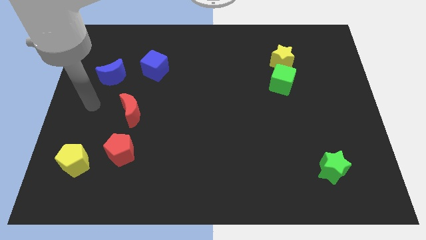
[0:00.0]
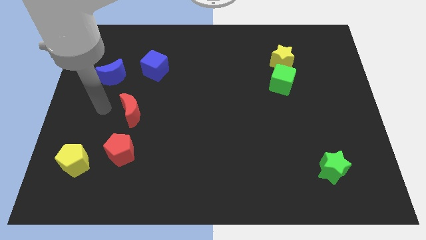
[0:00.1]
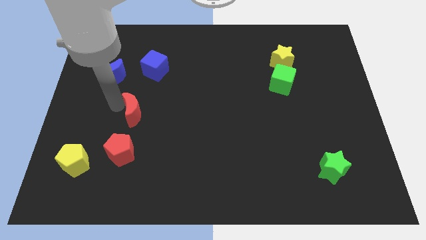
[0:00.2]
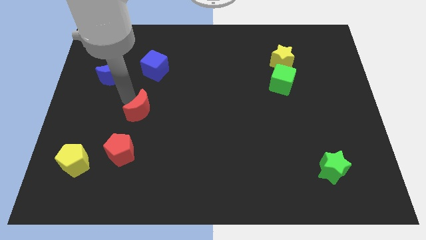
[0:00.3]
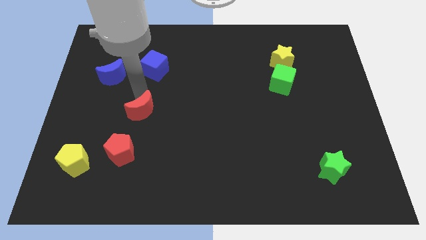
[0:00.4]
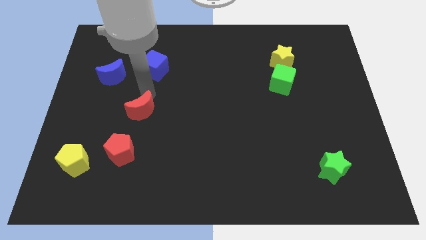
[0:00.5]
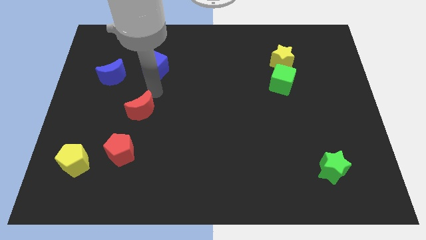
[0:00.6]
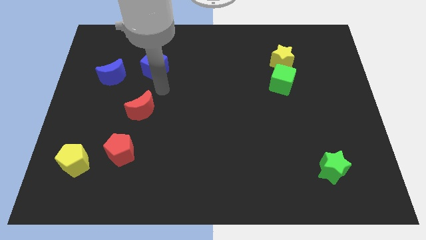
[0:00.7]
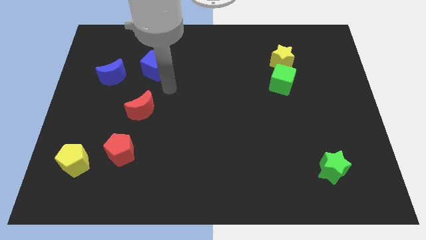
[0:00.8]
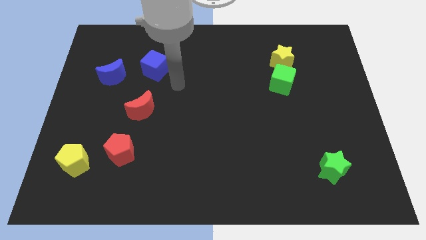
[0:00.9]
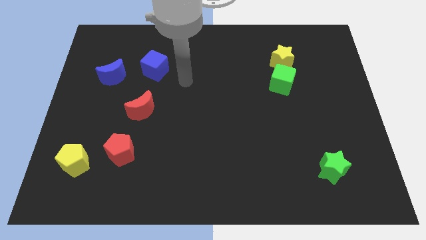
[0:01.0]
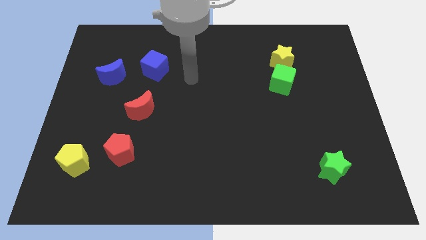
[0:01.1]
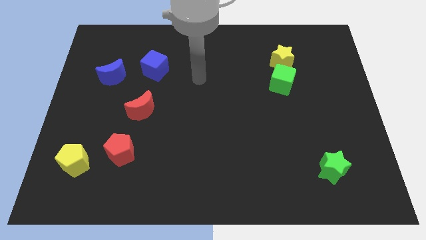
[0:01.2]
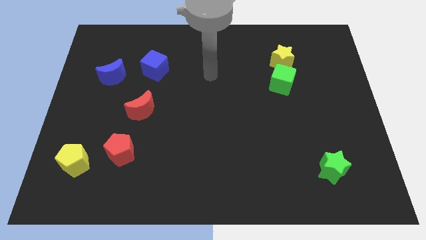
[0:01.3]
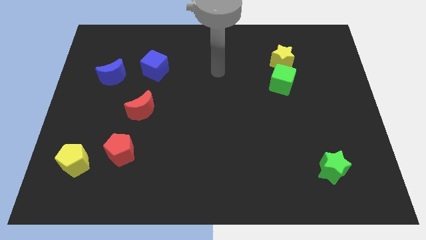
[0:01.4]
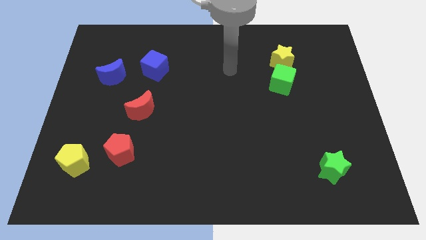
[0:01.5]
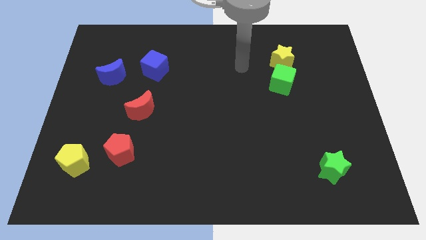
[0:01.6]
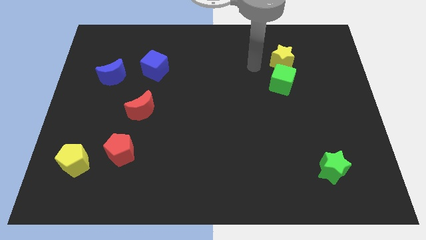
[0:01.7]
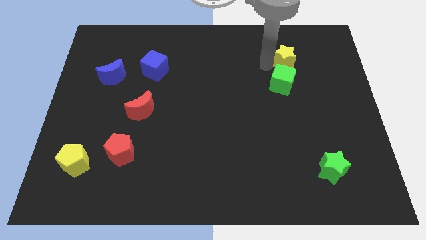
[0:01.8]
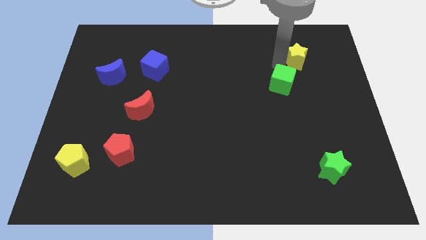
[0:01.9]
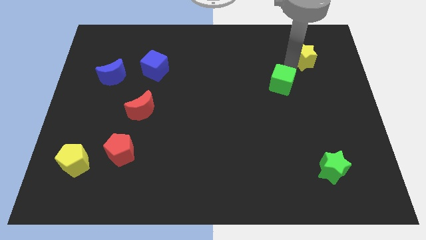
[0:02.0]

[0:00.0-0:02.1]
separate the green cube from the yellow star

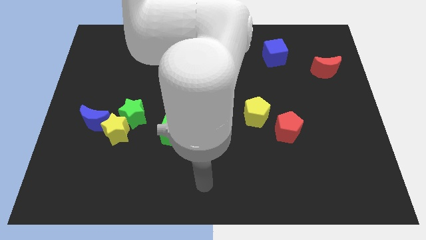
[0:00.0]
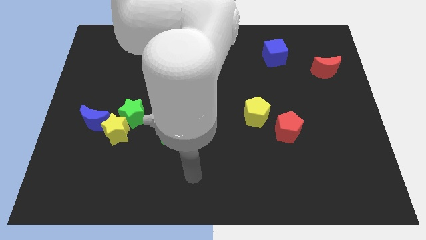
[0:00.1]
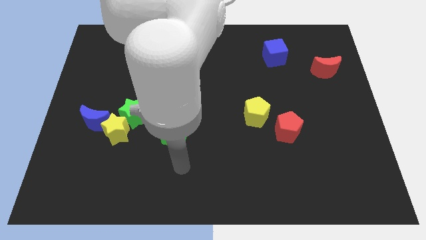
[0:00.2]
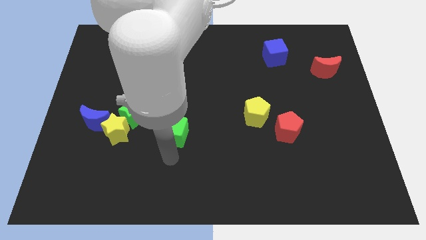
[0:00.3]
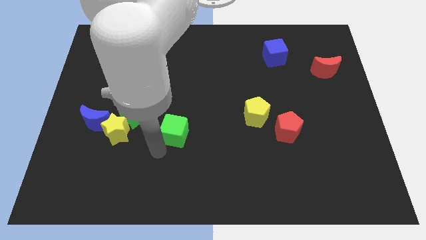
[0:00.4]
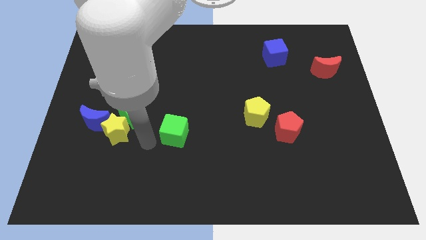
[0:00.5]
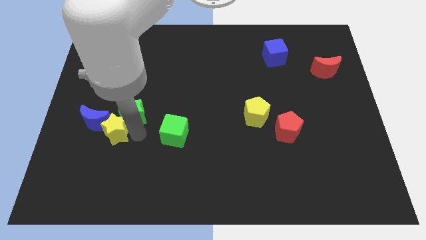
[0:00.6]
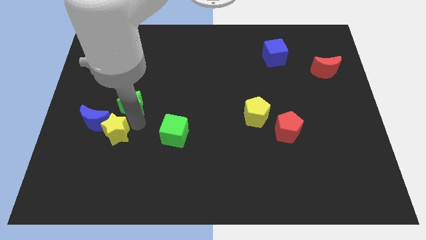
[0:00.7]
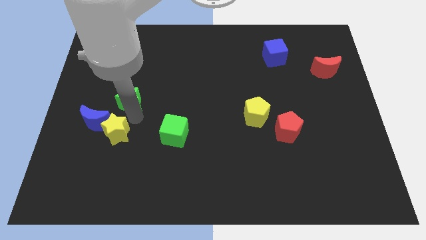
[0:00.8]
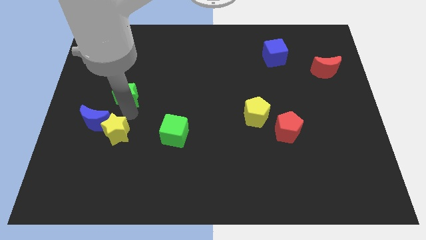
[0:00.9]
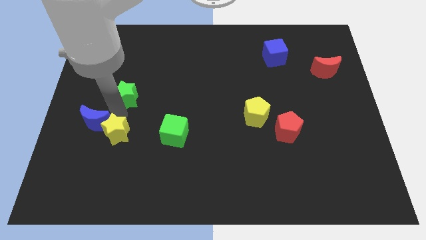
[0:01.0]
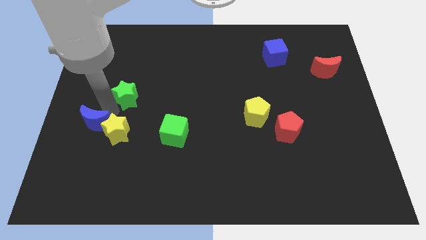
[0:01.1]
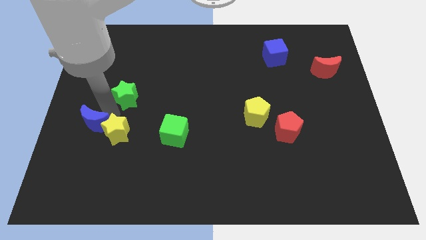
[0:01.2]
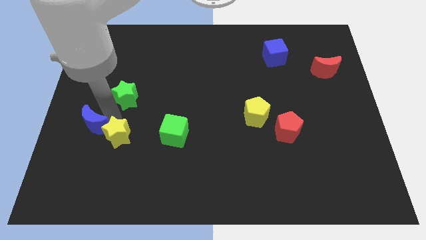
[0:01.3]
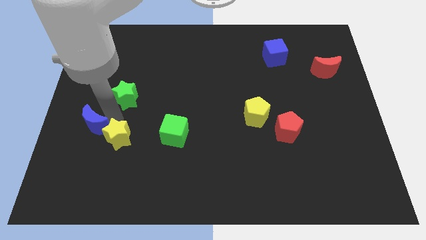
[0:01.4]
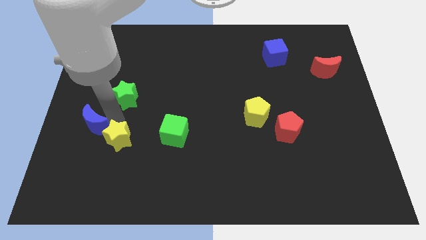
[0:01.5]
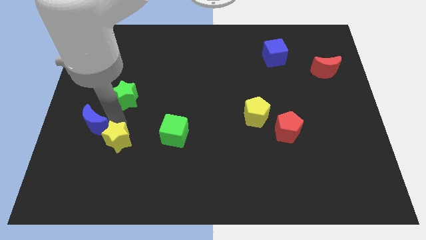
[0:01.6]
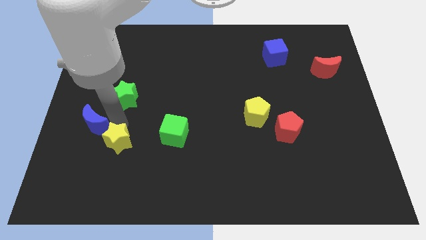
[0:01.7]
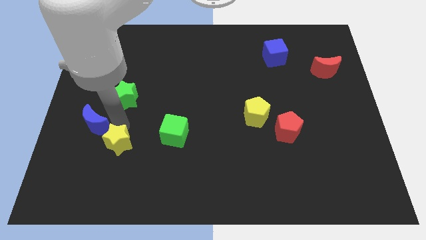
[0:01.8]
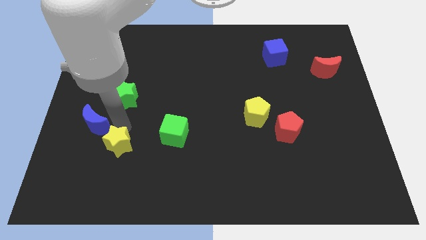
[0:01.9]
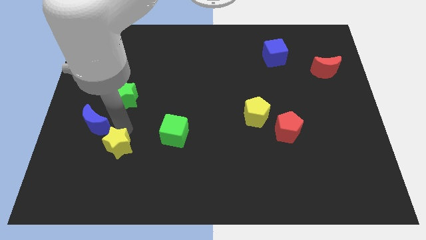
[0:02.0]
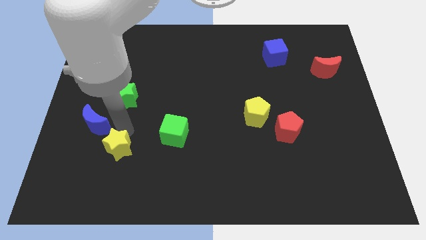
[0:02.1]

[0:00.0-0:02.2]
separate the yellow star from the green star and blue moon

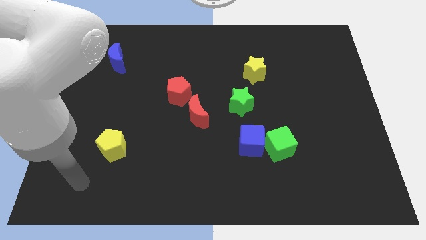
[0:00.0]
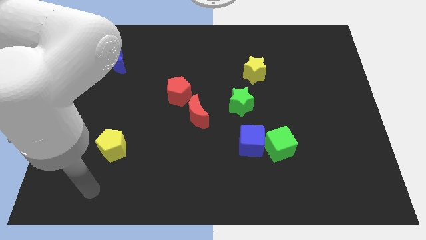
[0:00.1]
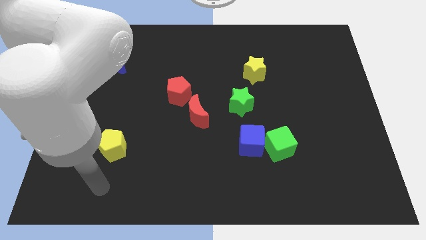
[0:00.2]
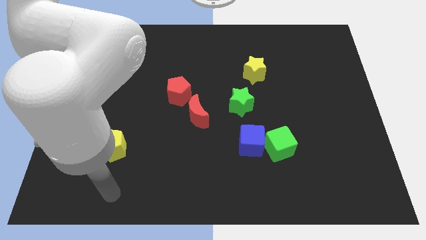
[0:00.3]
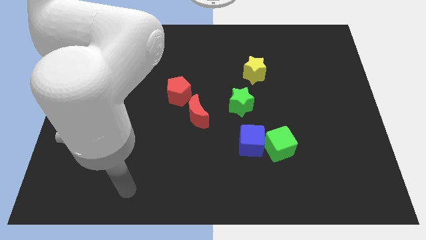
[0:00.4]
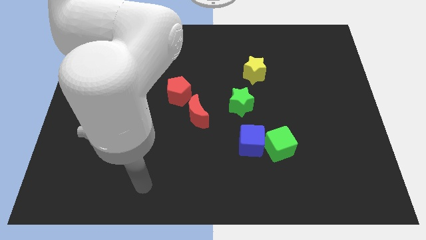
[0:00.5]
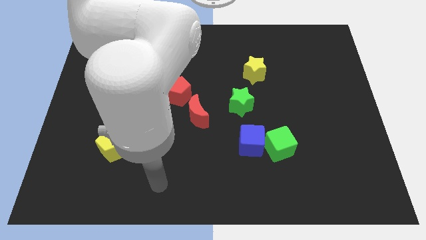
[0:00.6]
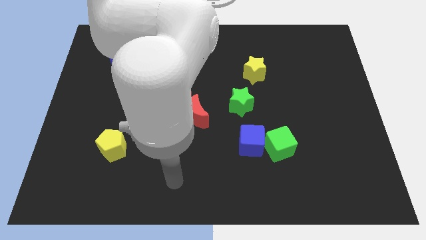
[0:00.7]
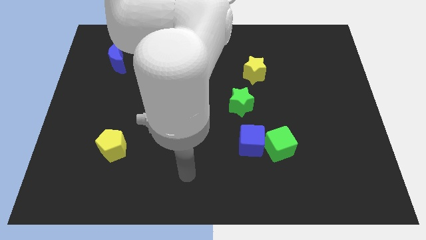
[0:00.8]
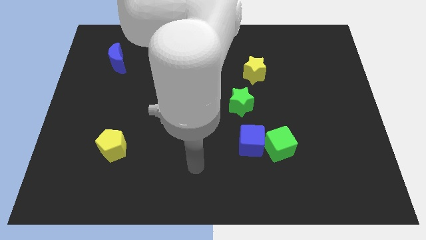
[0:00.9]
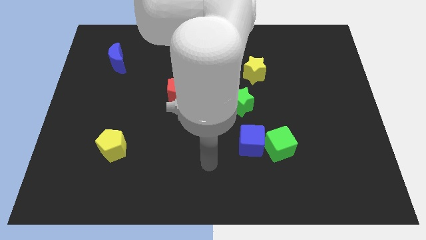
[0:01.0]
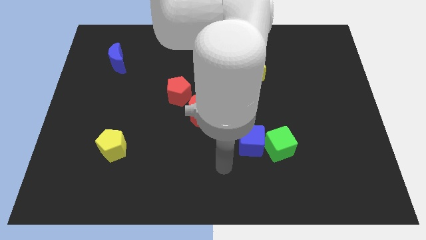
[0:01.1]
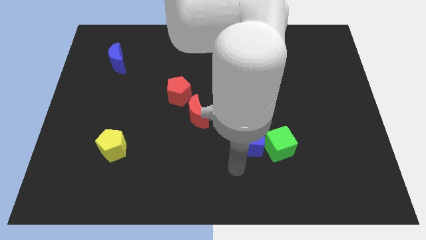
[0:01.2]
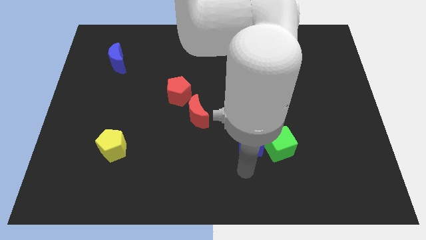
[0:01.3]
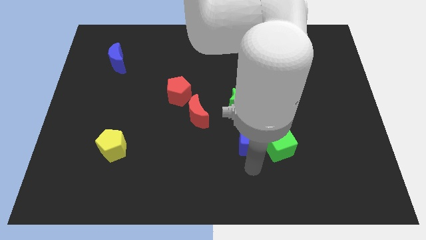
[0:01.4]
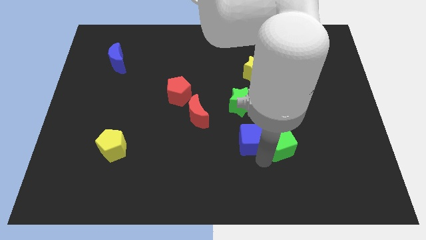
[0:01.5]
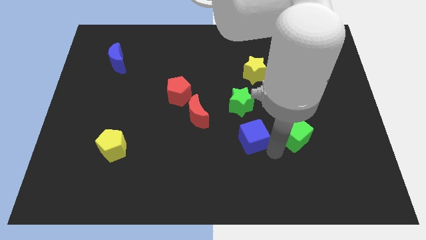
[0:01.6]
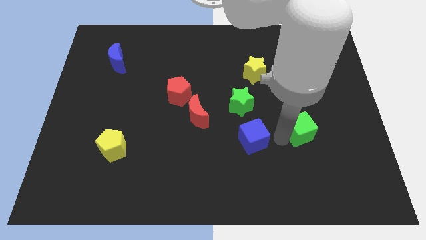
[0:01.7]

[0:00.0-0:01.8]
separate the blue cube from the green cube

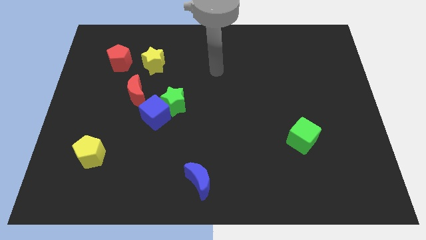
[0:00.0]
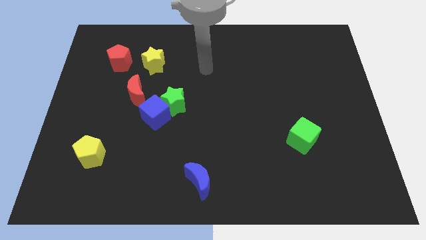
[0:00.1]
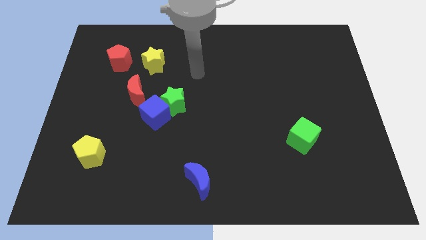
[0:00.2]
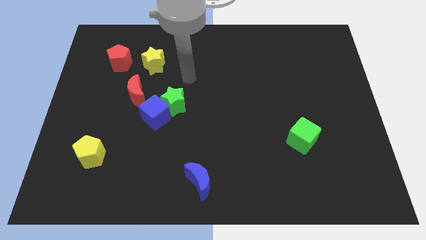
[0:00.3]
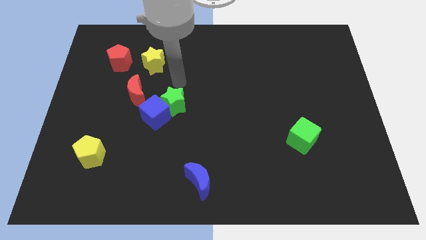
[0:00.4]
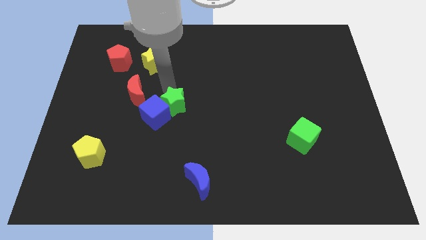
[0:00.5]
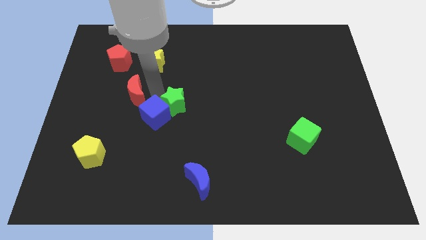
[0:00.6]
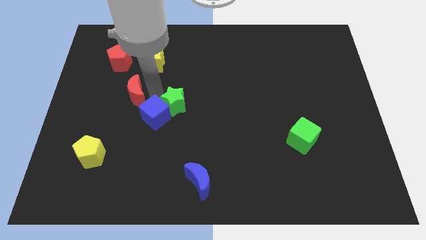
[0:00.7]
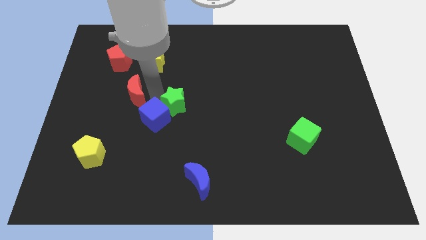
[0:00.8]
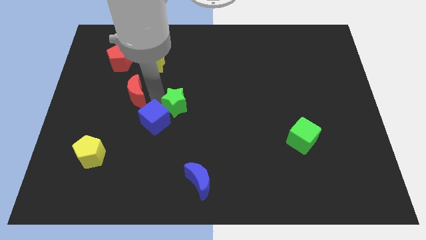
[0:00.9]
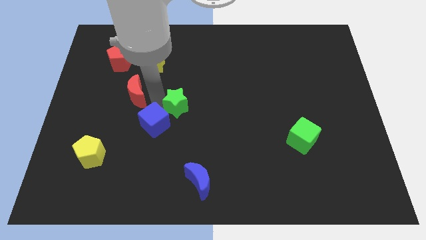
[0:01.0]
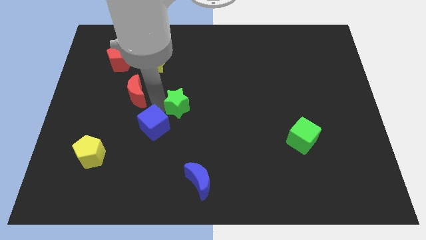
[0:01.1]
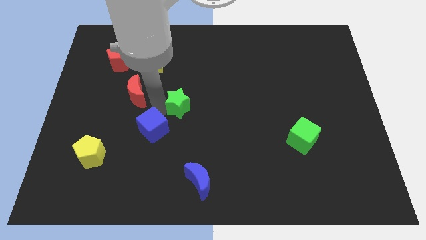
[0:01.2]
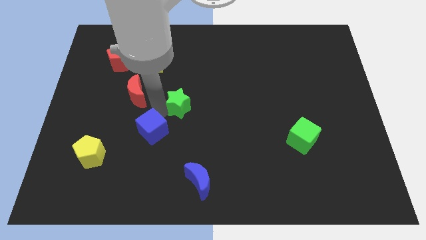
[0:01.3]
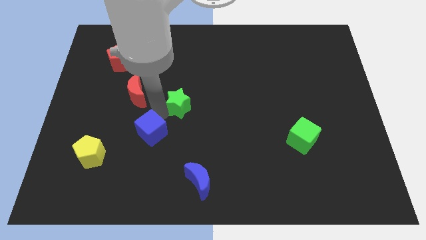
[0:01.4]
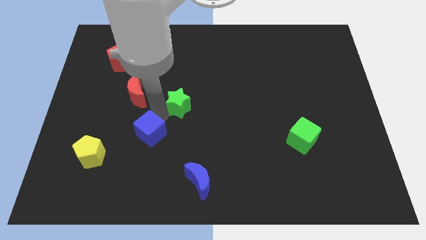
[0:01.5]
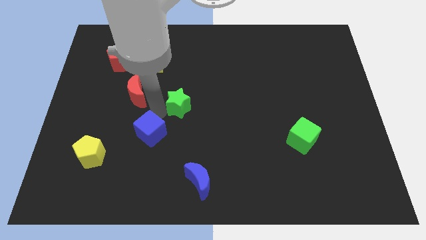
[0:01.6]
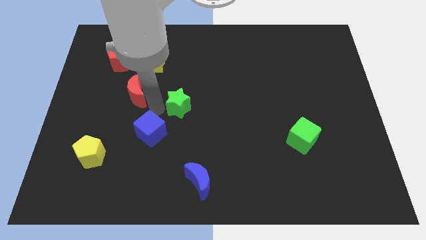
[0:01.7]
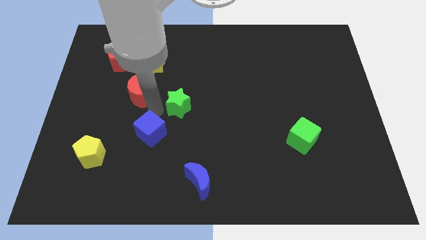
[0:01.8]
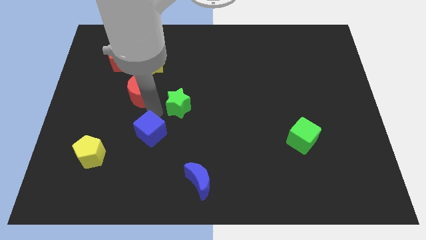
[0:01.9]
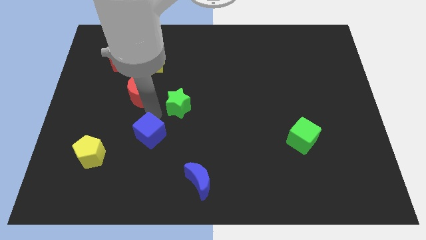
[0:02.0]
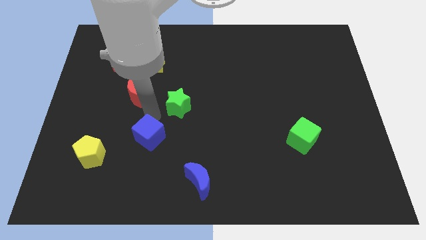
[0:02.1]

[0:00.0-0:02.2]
pull the blue cube apart from the green star and red moon

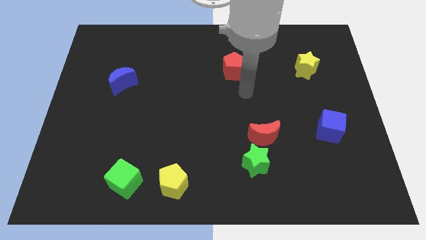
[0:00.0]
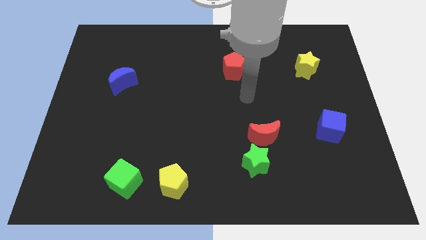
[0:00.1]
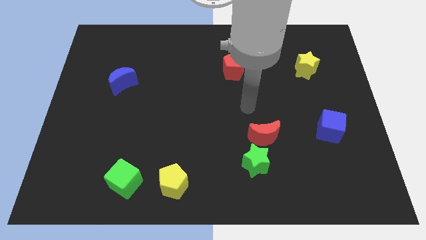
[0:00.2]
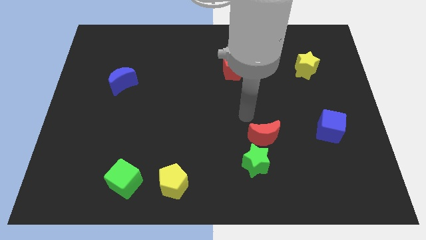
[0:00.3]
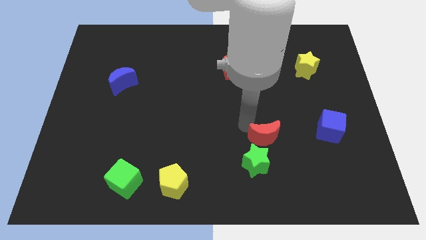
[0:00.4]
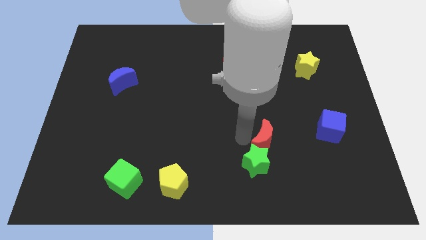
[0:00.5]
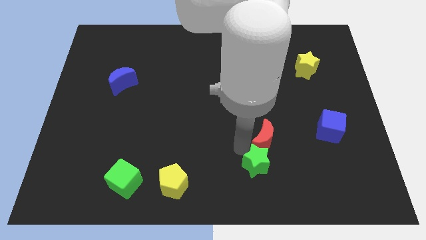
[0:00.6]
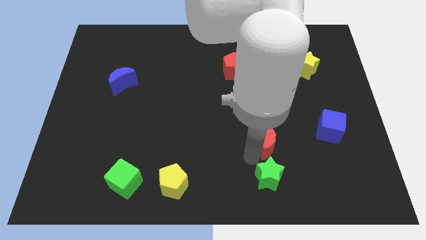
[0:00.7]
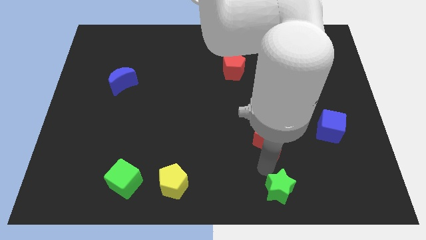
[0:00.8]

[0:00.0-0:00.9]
move the red moon away from the green star

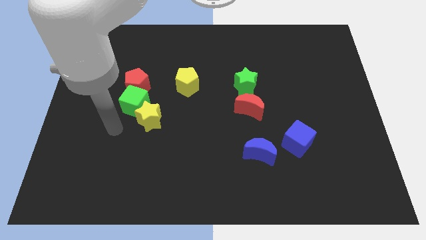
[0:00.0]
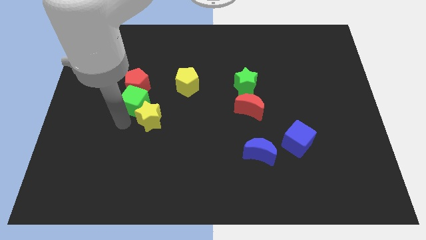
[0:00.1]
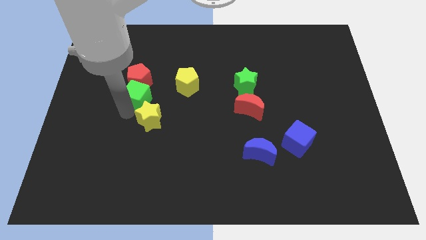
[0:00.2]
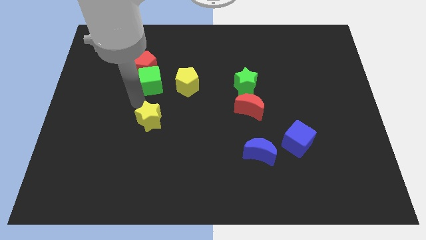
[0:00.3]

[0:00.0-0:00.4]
separate the yellow star from the green cube
